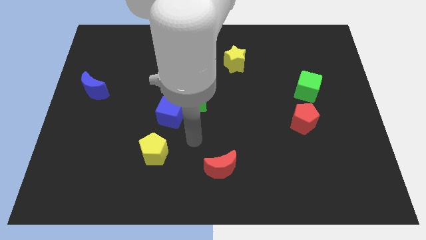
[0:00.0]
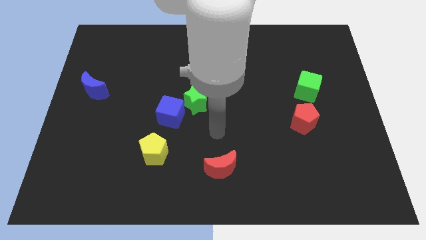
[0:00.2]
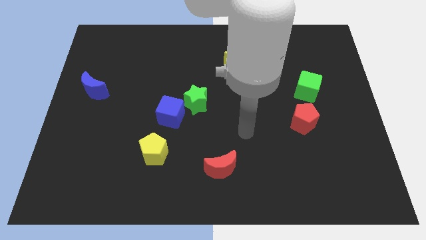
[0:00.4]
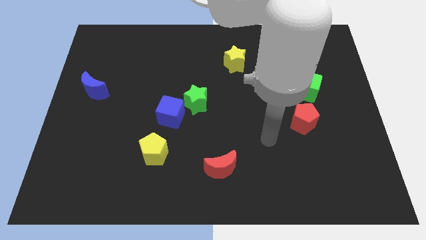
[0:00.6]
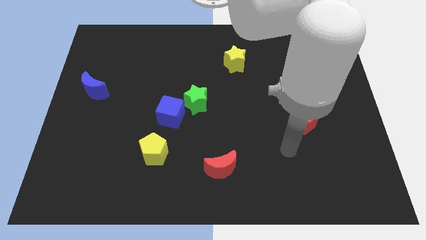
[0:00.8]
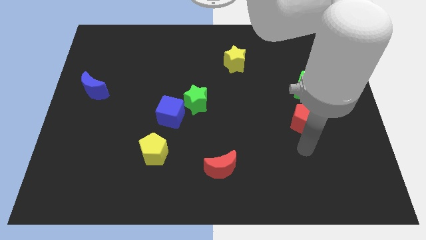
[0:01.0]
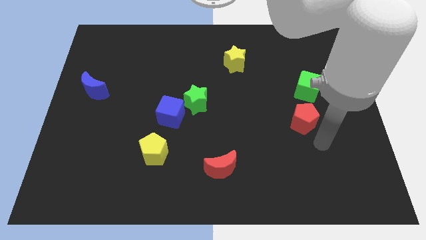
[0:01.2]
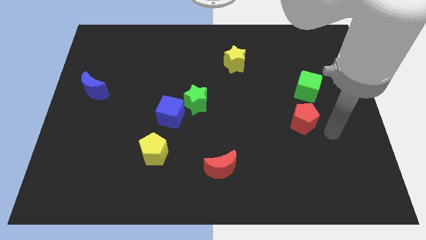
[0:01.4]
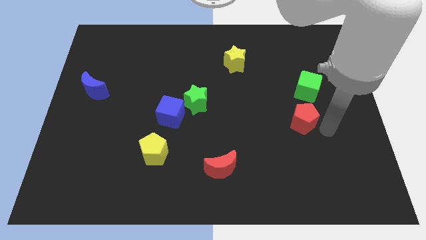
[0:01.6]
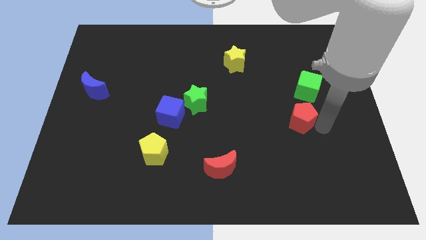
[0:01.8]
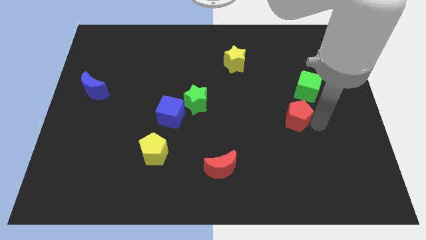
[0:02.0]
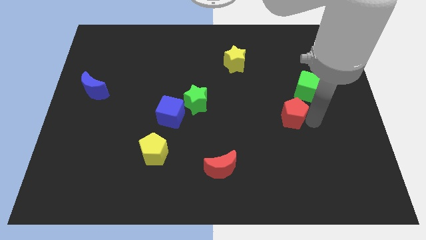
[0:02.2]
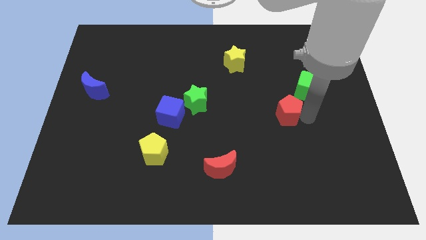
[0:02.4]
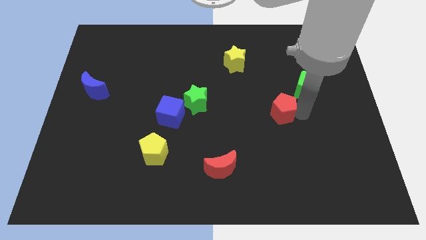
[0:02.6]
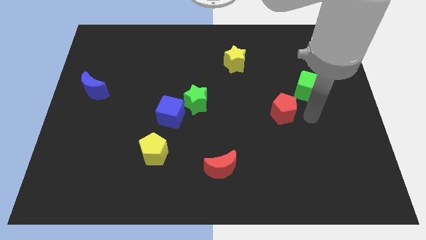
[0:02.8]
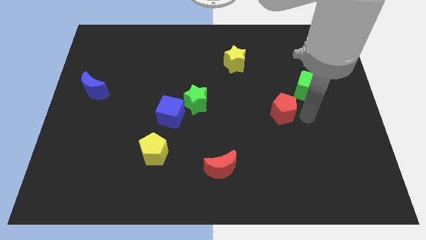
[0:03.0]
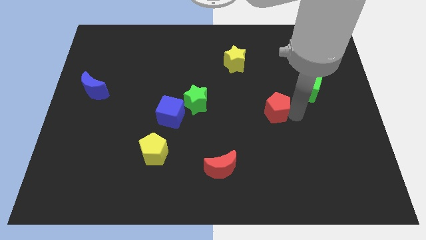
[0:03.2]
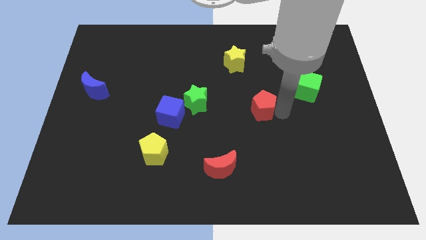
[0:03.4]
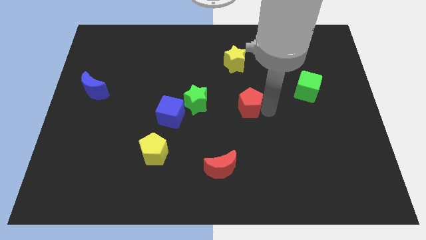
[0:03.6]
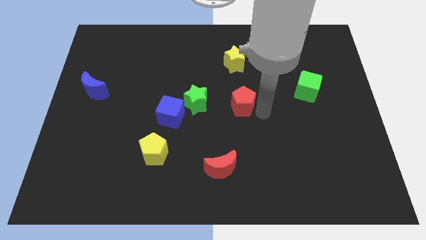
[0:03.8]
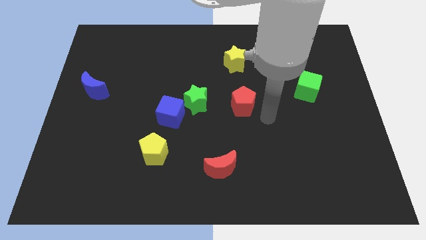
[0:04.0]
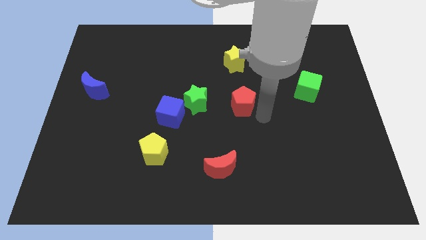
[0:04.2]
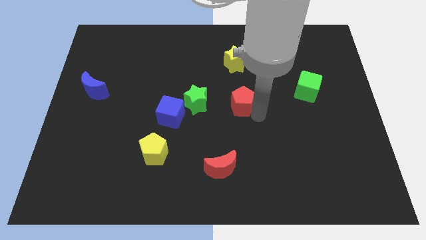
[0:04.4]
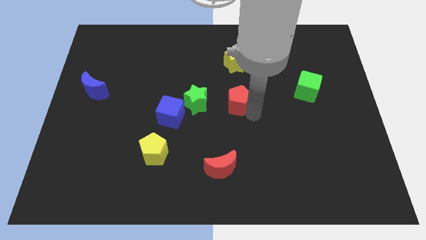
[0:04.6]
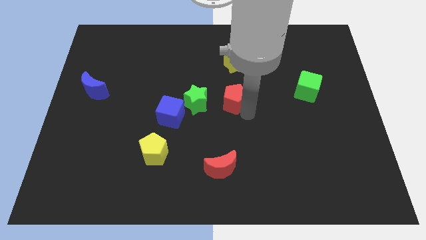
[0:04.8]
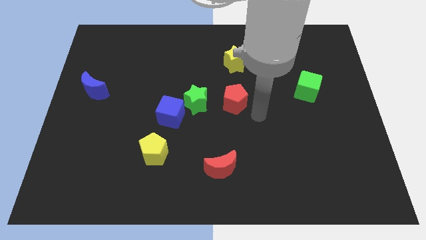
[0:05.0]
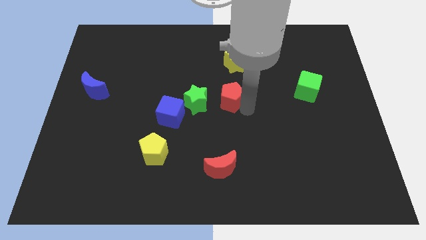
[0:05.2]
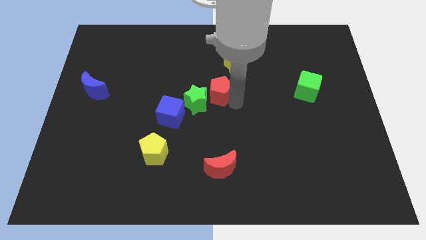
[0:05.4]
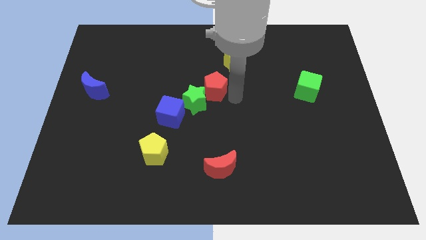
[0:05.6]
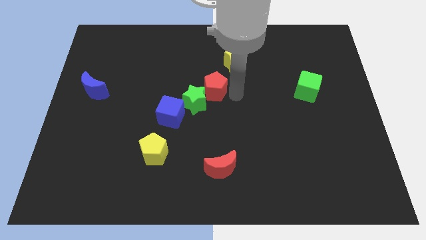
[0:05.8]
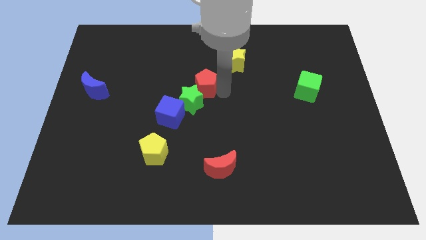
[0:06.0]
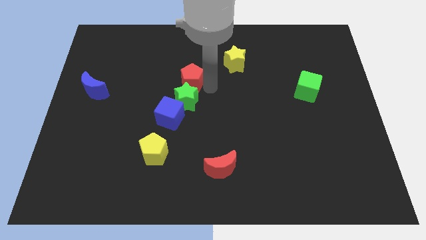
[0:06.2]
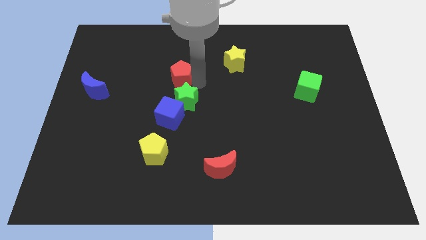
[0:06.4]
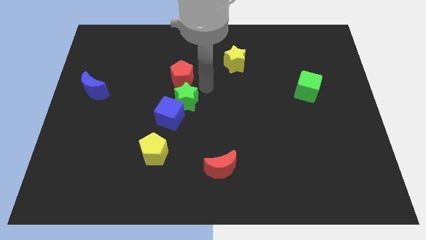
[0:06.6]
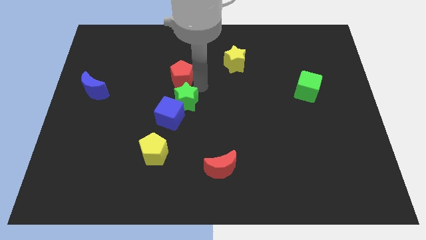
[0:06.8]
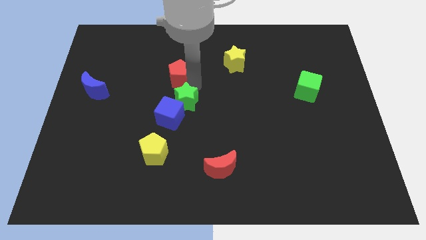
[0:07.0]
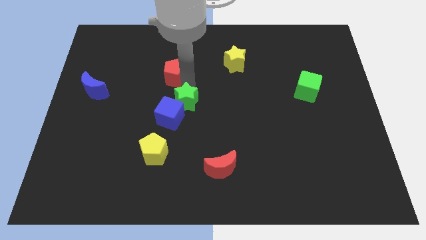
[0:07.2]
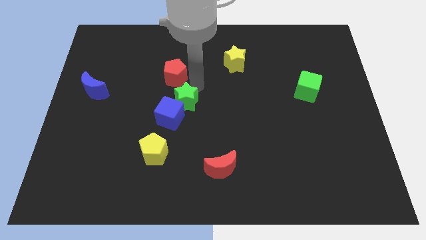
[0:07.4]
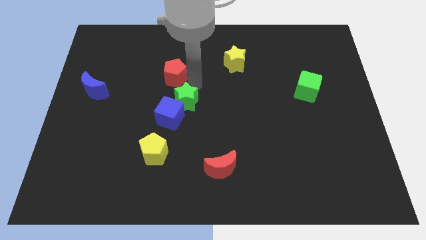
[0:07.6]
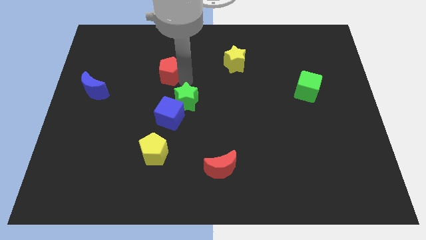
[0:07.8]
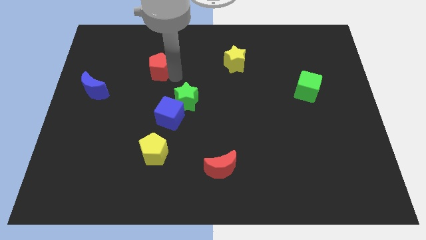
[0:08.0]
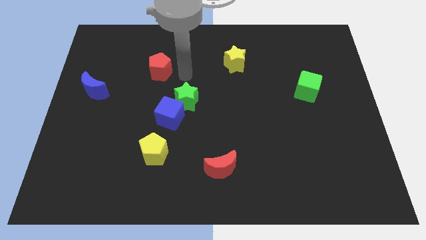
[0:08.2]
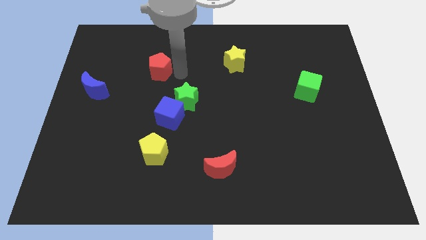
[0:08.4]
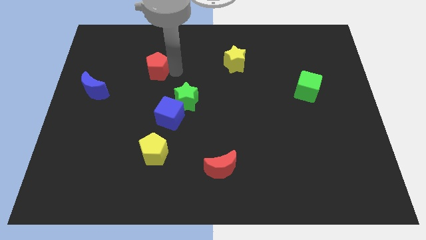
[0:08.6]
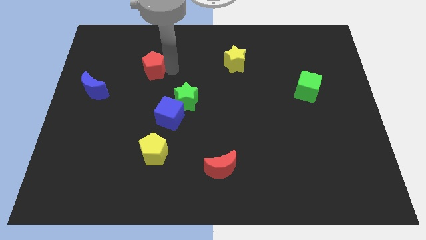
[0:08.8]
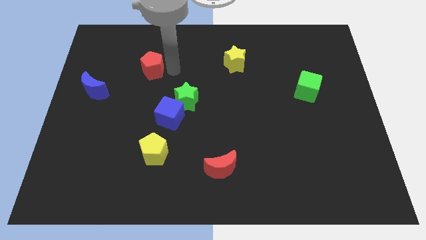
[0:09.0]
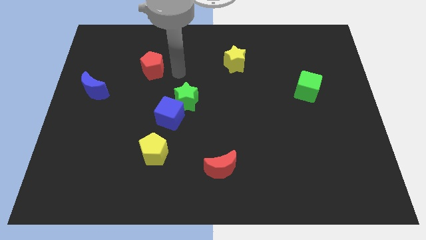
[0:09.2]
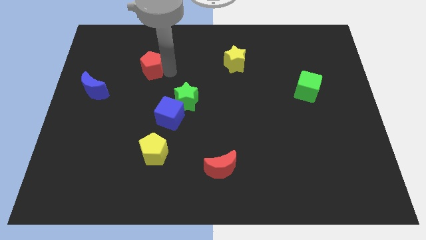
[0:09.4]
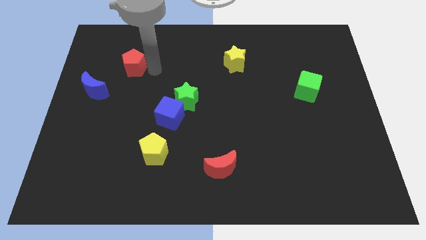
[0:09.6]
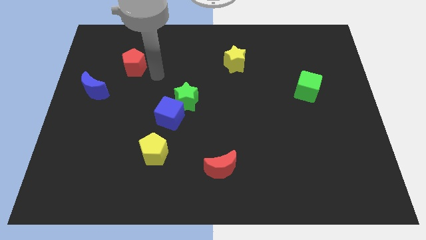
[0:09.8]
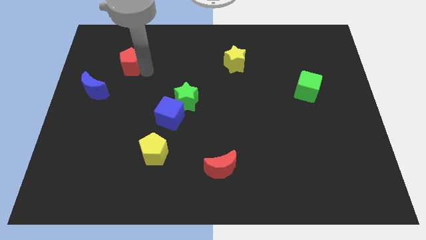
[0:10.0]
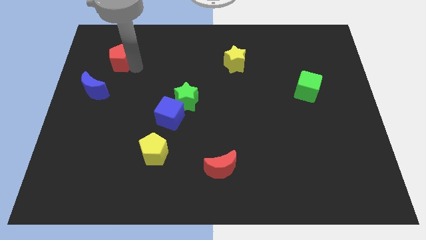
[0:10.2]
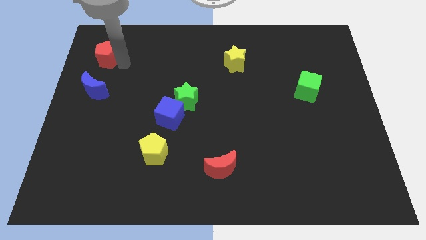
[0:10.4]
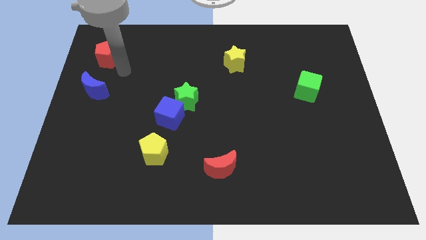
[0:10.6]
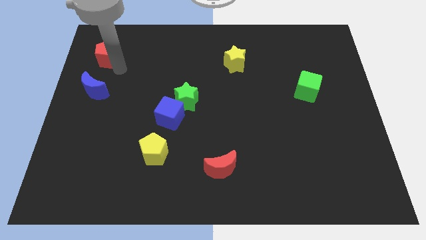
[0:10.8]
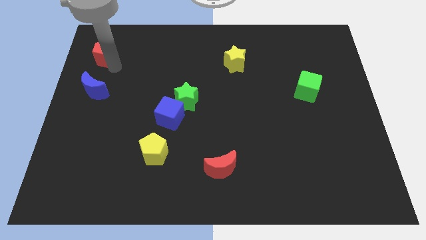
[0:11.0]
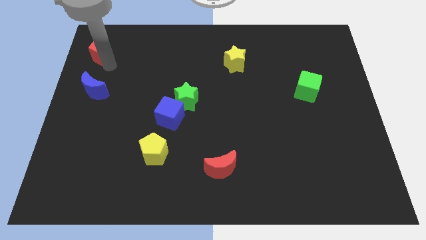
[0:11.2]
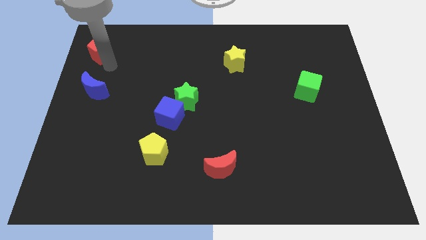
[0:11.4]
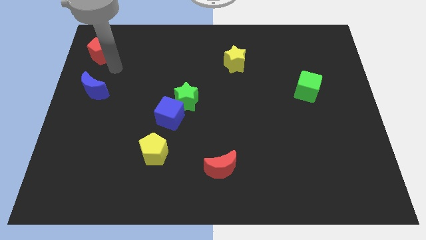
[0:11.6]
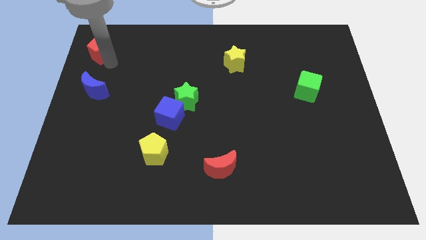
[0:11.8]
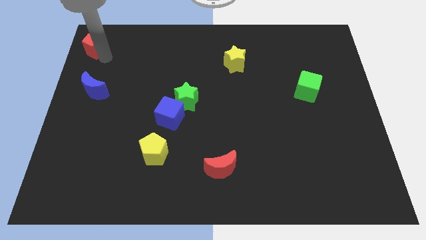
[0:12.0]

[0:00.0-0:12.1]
put the red pentagon to the top left

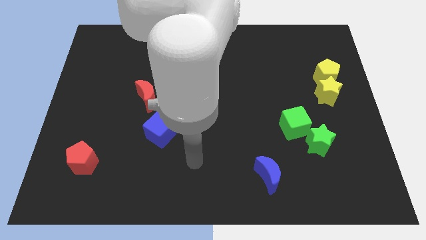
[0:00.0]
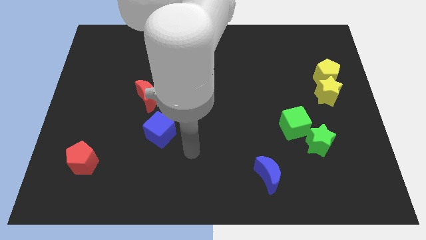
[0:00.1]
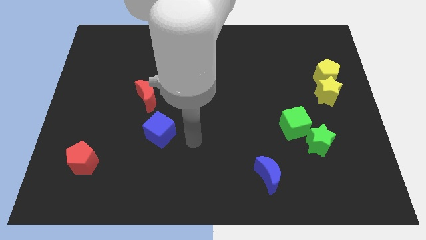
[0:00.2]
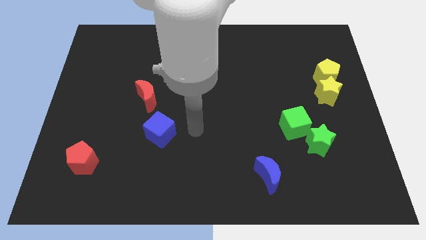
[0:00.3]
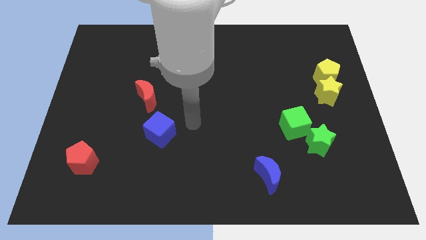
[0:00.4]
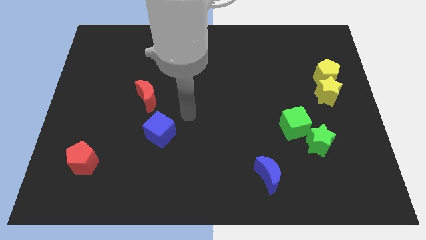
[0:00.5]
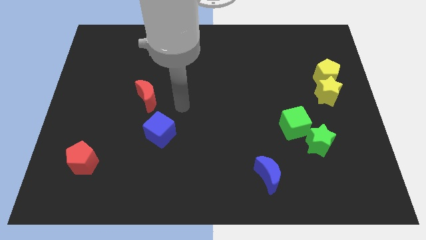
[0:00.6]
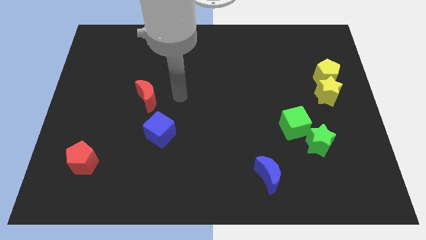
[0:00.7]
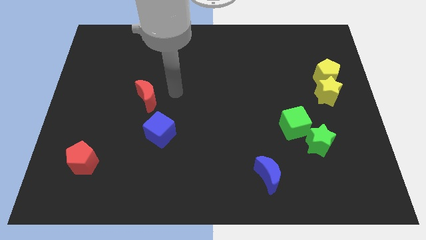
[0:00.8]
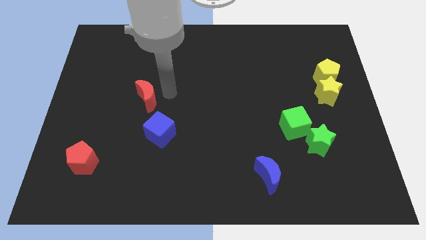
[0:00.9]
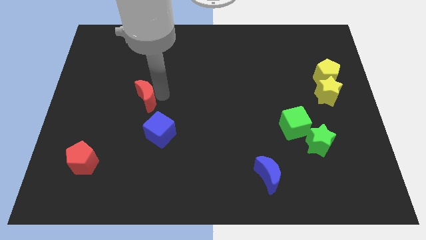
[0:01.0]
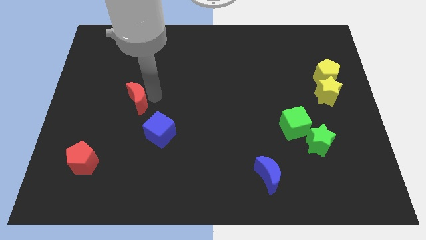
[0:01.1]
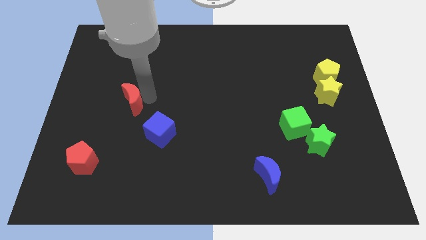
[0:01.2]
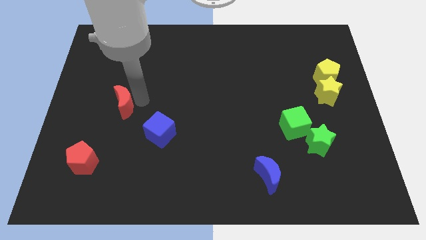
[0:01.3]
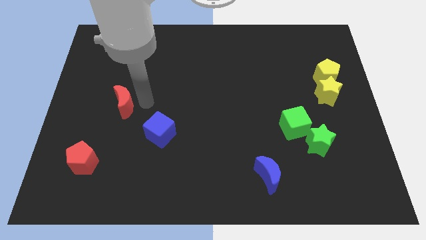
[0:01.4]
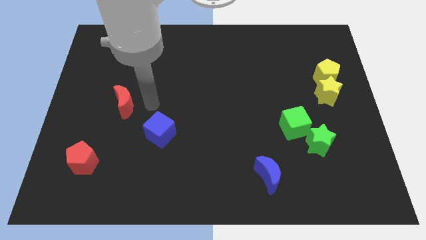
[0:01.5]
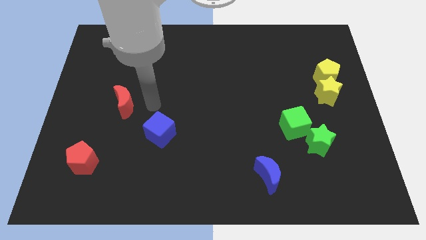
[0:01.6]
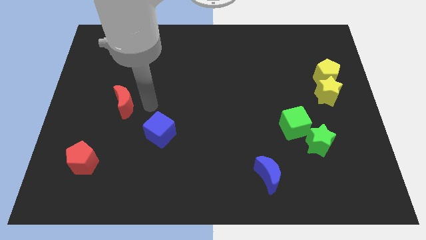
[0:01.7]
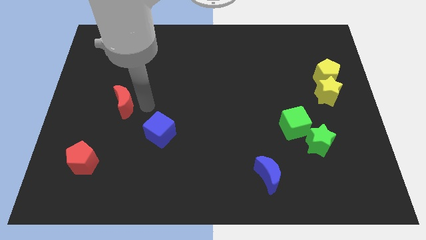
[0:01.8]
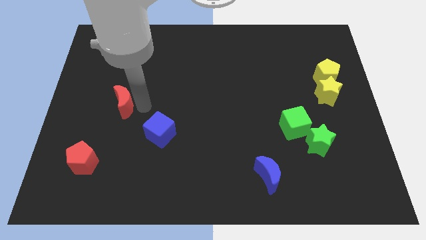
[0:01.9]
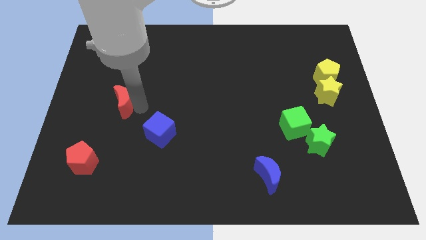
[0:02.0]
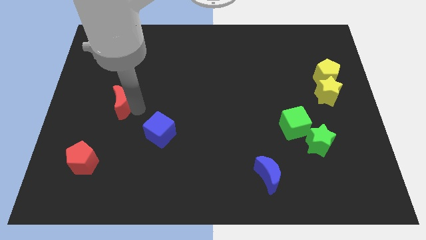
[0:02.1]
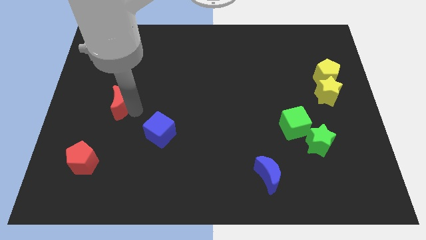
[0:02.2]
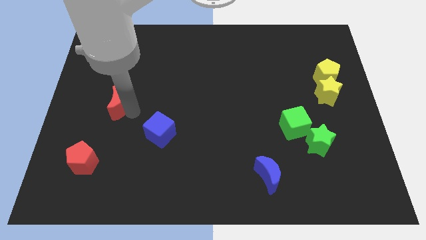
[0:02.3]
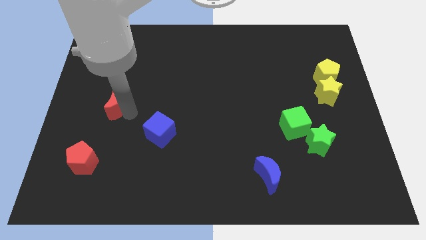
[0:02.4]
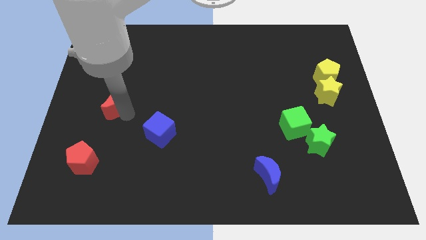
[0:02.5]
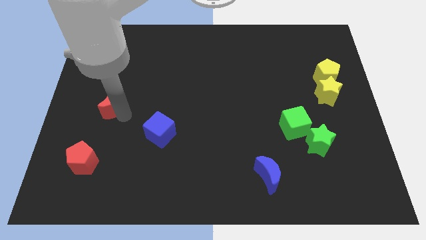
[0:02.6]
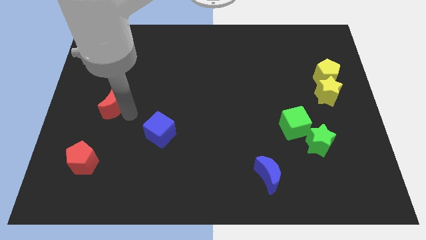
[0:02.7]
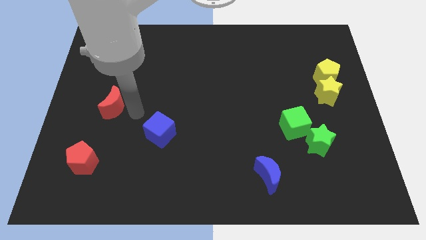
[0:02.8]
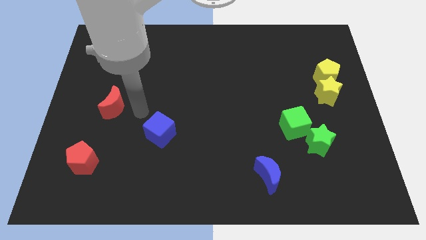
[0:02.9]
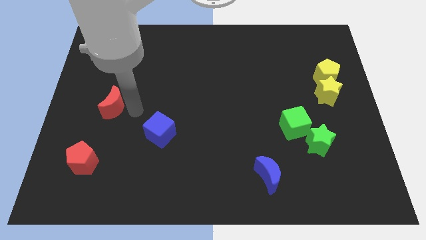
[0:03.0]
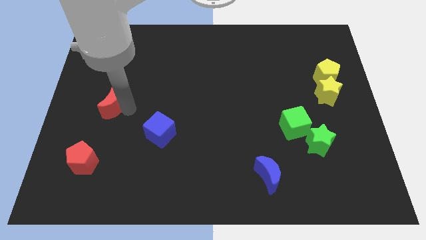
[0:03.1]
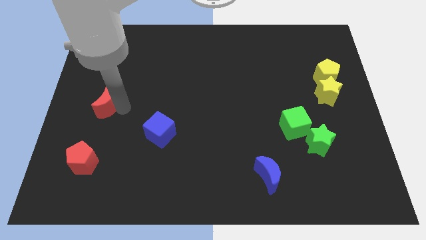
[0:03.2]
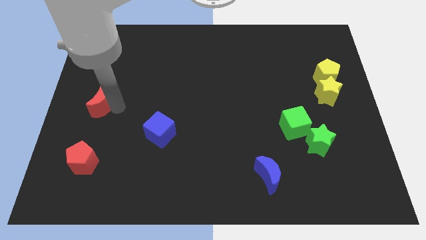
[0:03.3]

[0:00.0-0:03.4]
push the red moon to the left side
